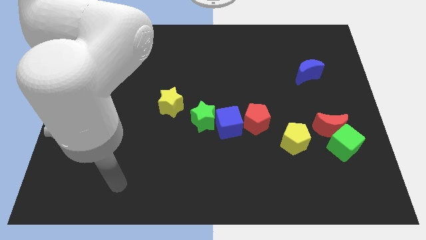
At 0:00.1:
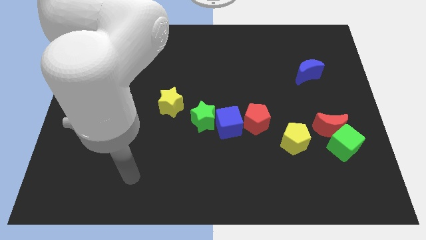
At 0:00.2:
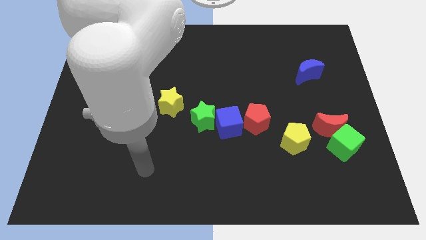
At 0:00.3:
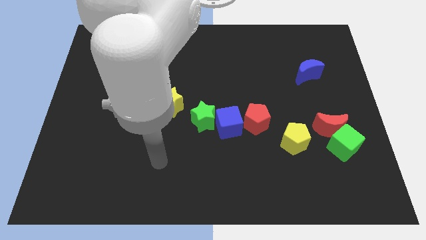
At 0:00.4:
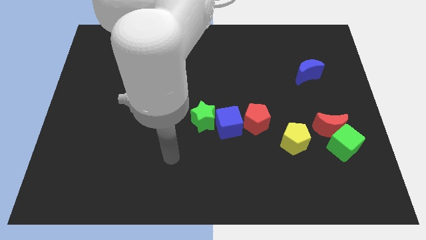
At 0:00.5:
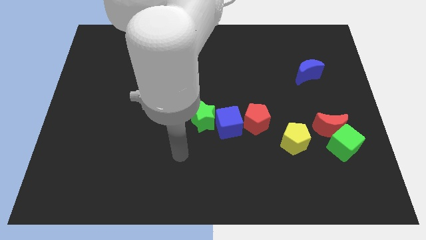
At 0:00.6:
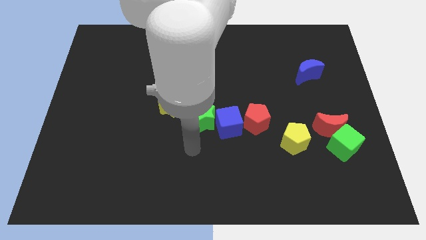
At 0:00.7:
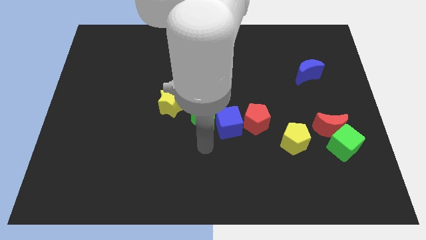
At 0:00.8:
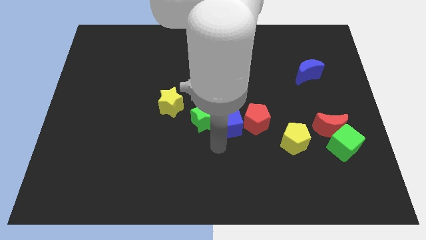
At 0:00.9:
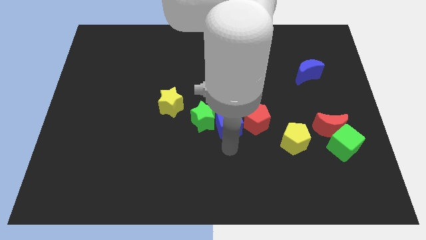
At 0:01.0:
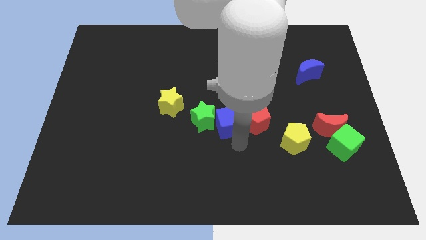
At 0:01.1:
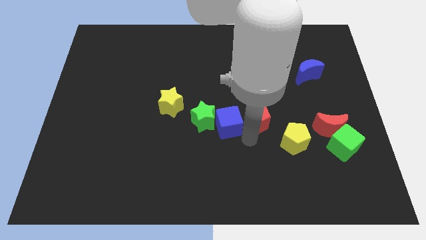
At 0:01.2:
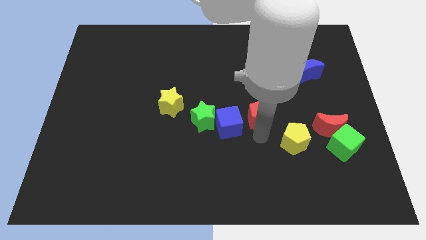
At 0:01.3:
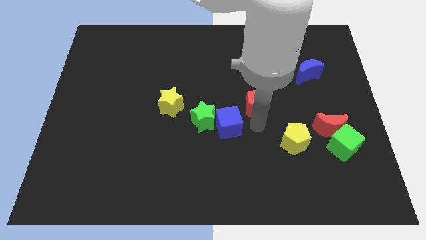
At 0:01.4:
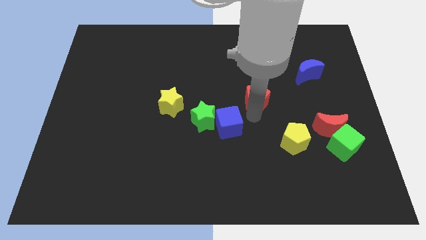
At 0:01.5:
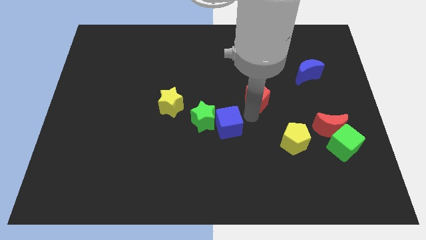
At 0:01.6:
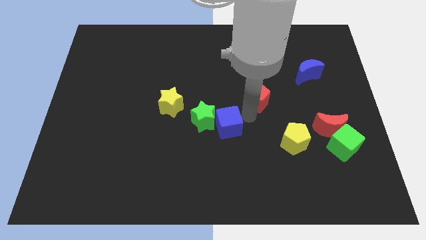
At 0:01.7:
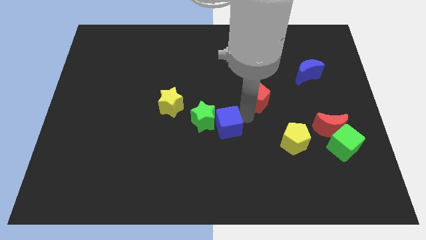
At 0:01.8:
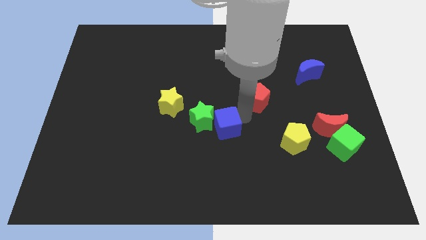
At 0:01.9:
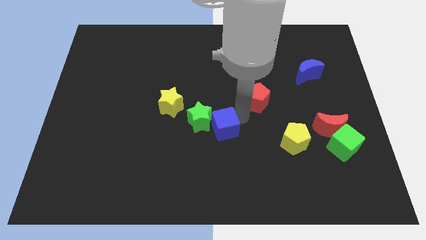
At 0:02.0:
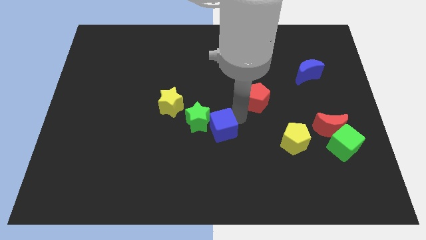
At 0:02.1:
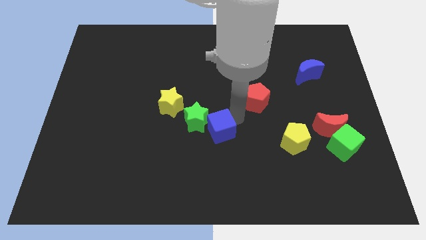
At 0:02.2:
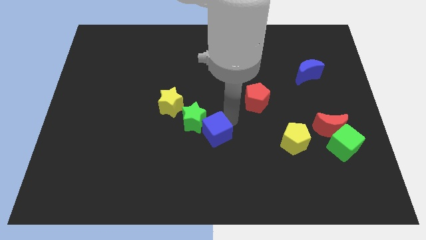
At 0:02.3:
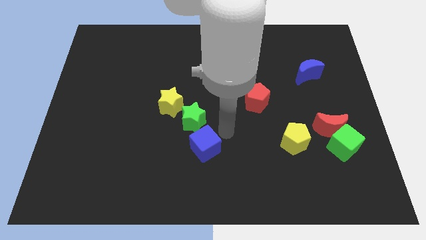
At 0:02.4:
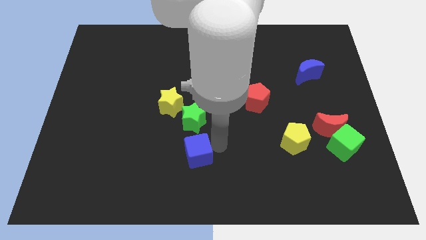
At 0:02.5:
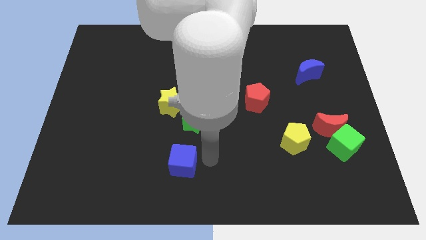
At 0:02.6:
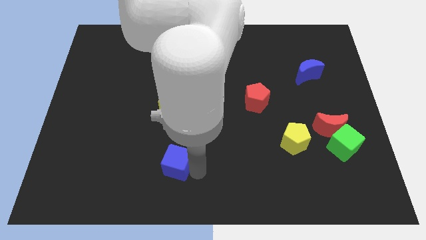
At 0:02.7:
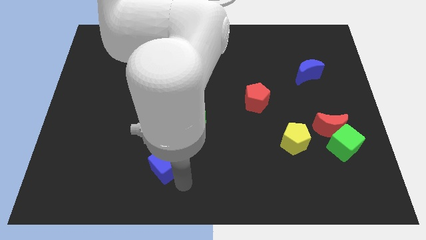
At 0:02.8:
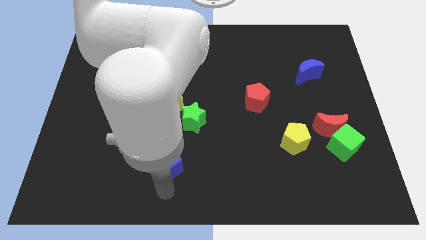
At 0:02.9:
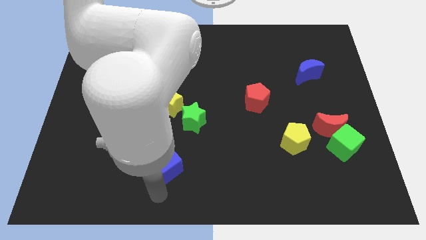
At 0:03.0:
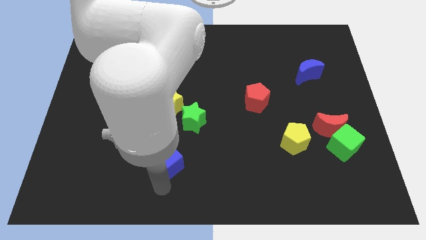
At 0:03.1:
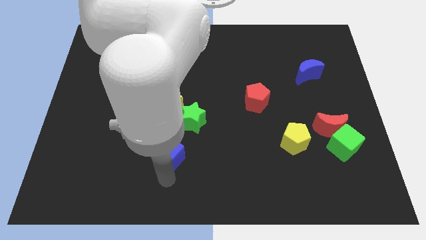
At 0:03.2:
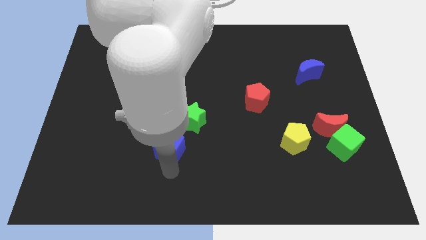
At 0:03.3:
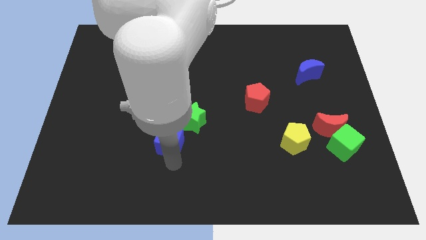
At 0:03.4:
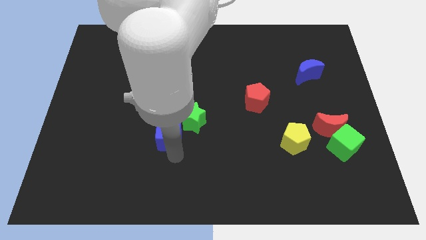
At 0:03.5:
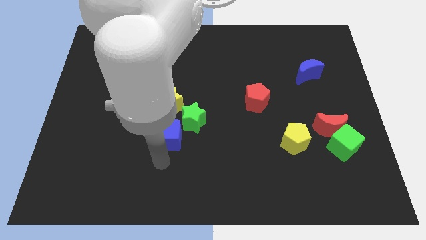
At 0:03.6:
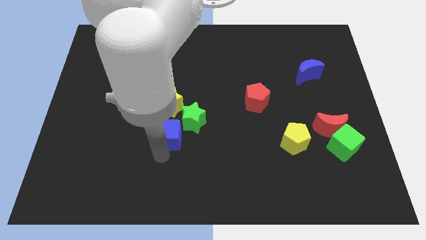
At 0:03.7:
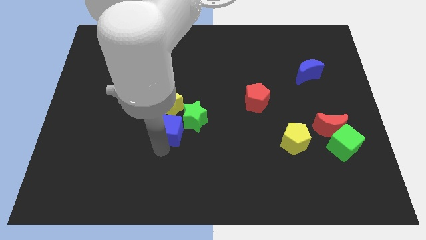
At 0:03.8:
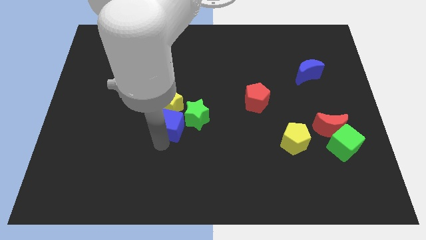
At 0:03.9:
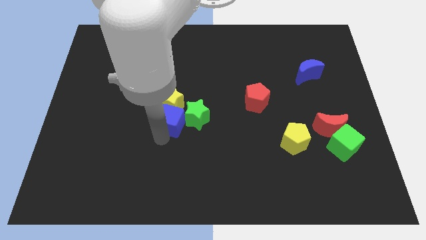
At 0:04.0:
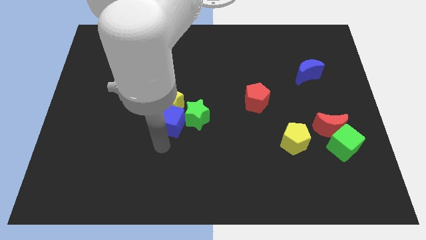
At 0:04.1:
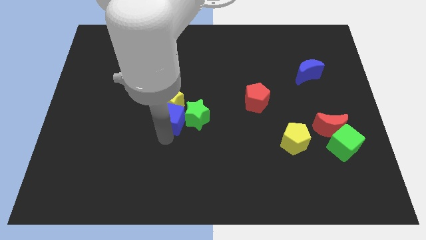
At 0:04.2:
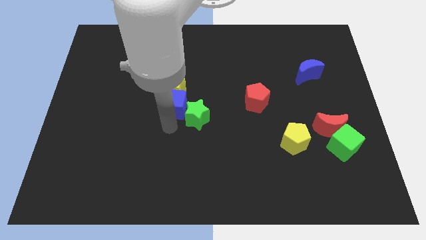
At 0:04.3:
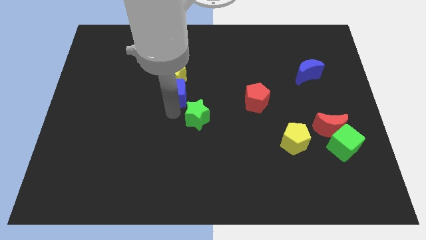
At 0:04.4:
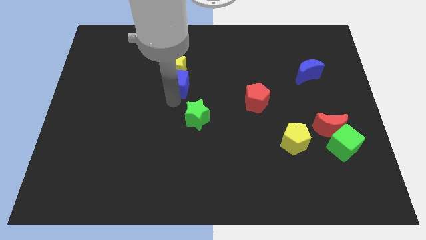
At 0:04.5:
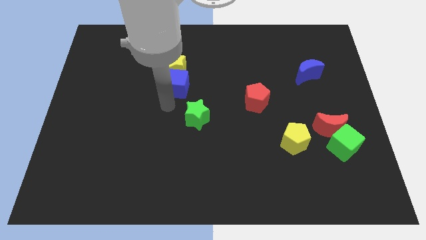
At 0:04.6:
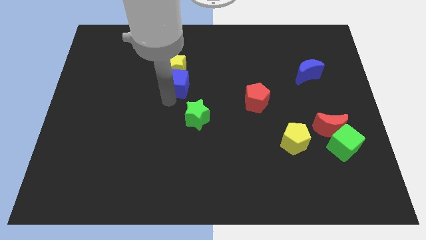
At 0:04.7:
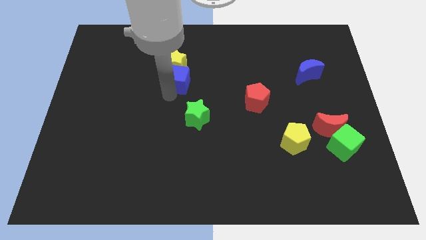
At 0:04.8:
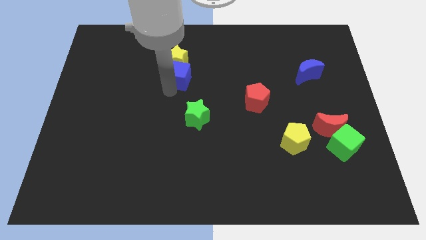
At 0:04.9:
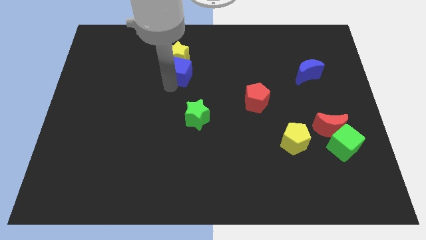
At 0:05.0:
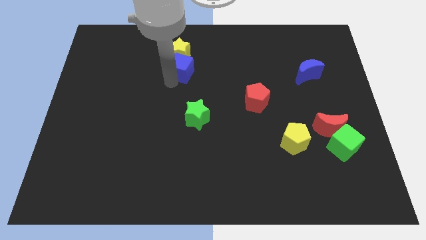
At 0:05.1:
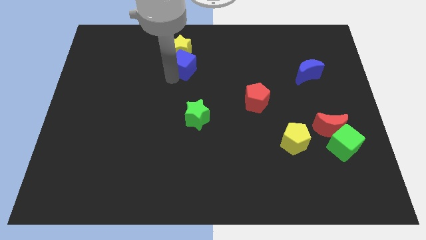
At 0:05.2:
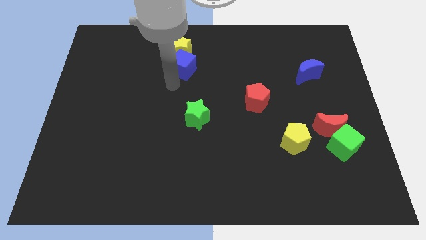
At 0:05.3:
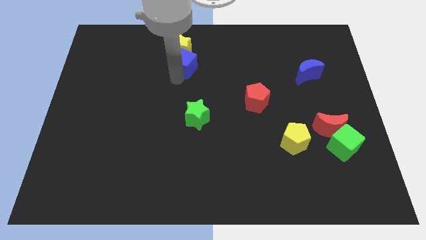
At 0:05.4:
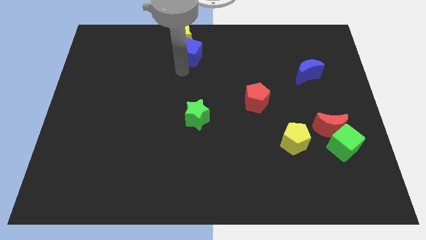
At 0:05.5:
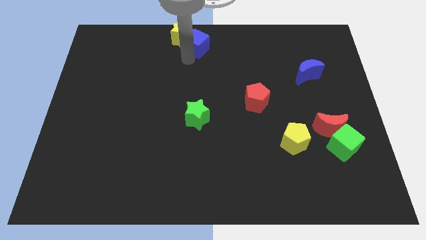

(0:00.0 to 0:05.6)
slide the blue cube to the towards your base
